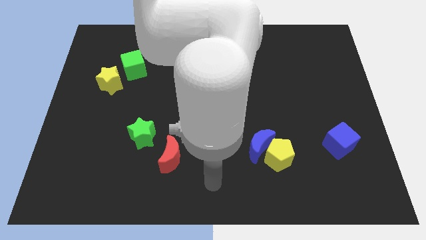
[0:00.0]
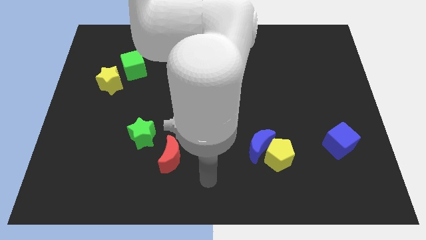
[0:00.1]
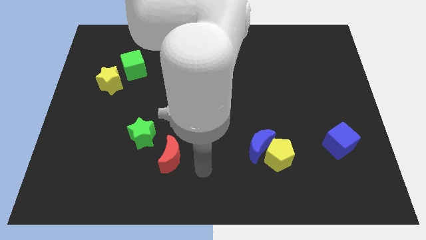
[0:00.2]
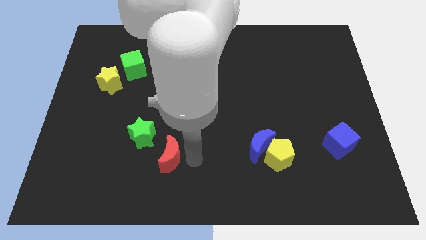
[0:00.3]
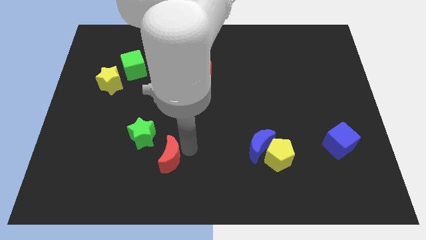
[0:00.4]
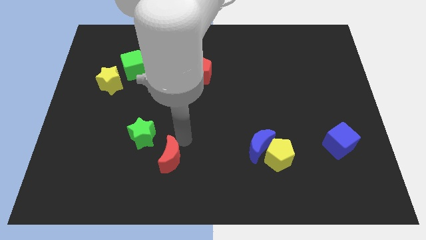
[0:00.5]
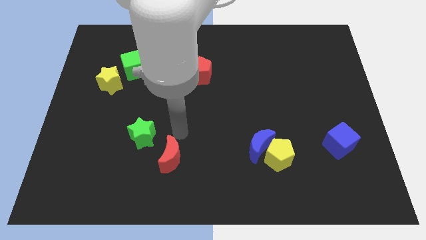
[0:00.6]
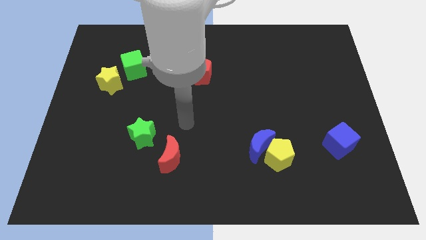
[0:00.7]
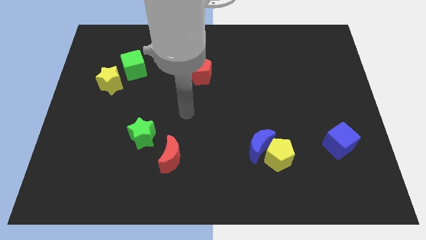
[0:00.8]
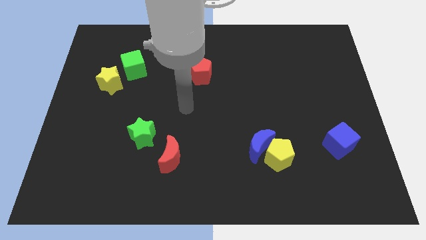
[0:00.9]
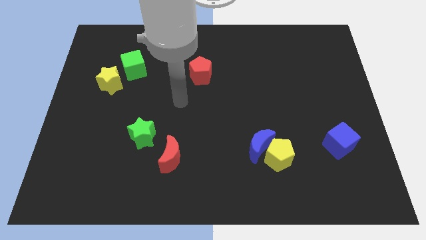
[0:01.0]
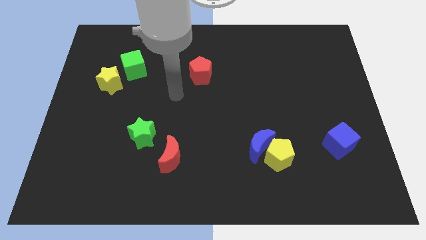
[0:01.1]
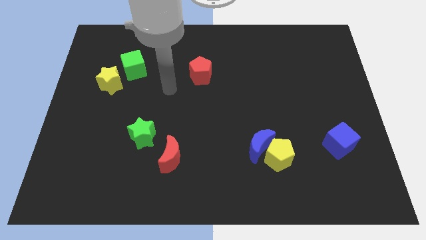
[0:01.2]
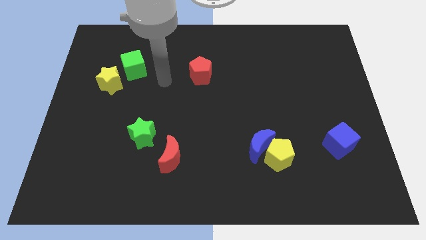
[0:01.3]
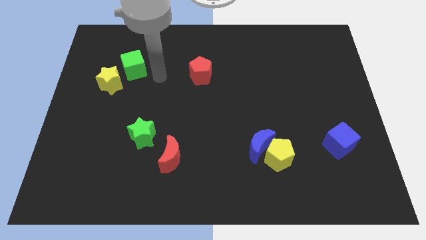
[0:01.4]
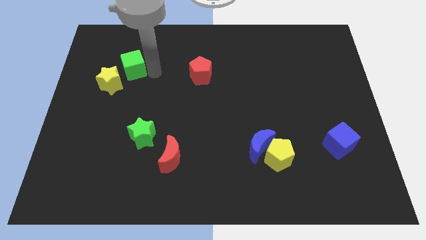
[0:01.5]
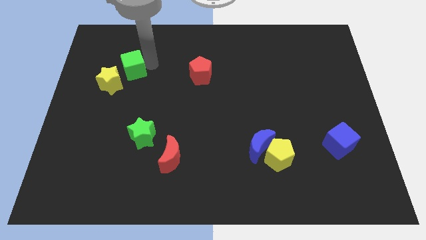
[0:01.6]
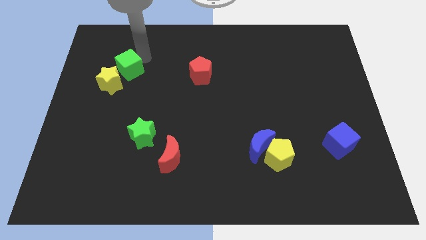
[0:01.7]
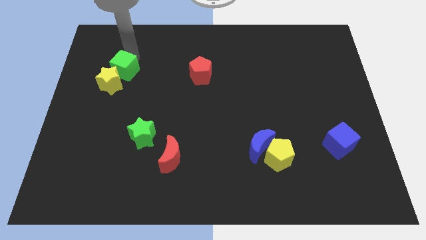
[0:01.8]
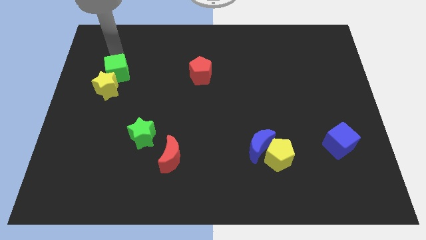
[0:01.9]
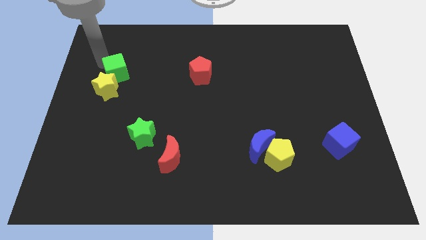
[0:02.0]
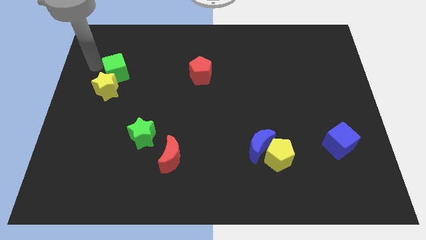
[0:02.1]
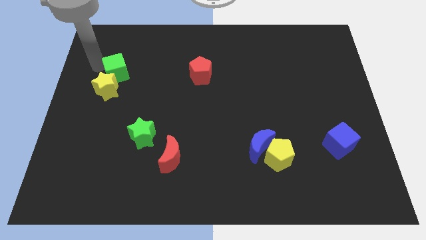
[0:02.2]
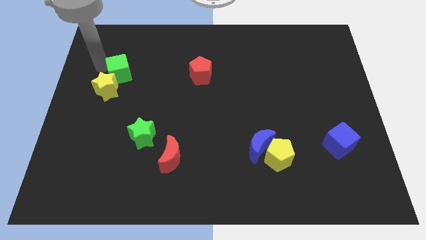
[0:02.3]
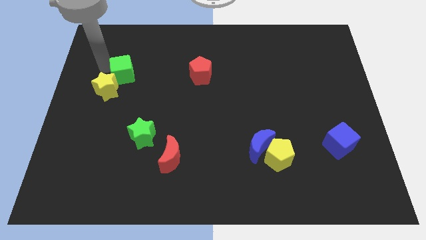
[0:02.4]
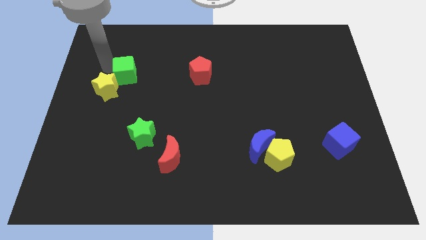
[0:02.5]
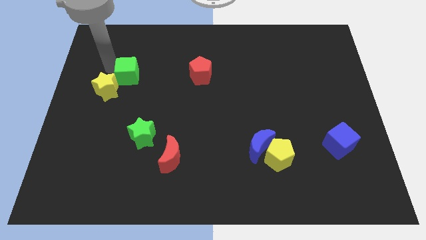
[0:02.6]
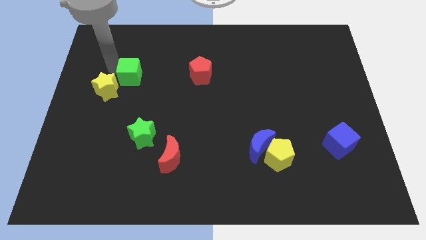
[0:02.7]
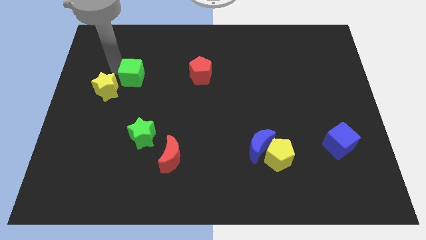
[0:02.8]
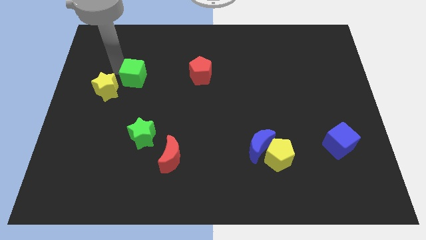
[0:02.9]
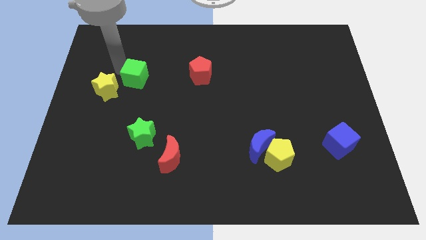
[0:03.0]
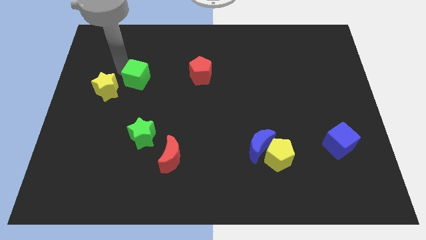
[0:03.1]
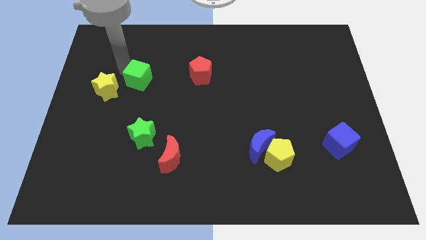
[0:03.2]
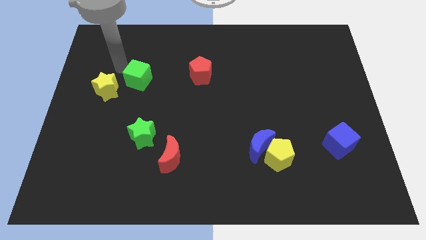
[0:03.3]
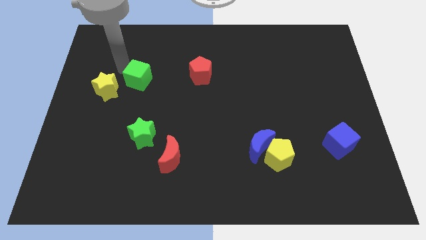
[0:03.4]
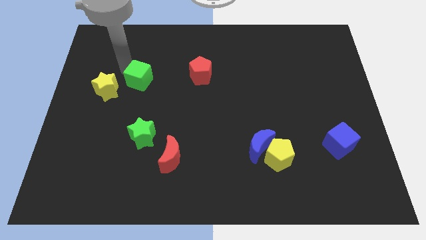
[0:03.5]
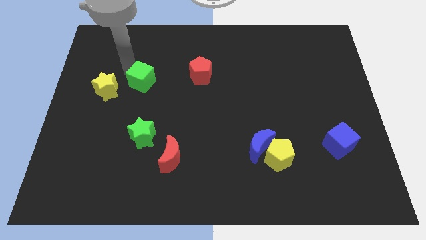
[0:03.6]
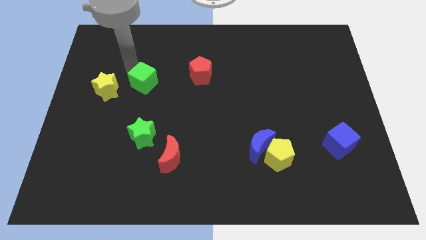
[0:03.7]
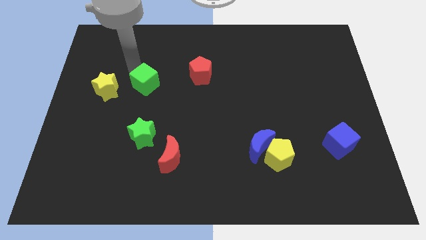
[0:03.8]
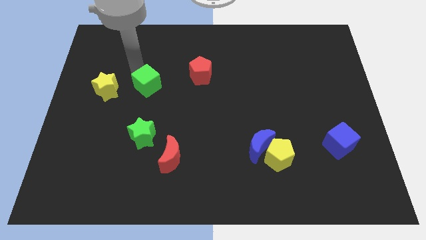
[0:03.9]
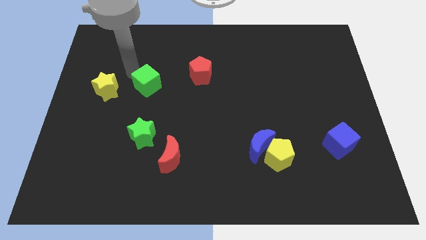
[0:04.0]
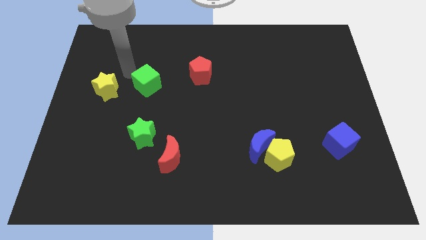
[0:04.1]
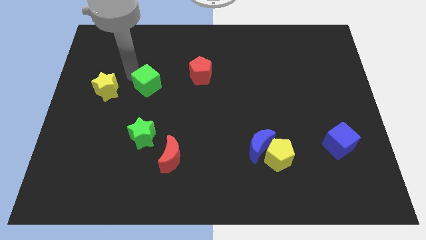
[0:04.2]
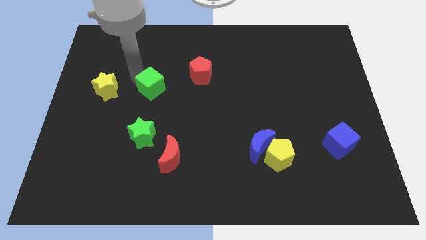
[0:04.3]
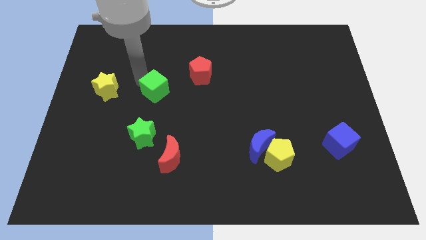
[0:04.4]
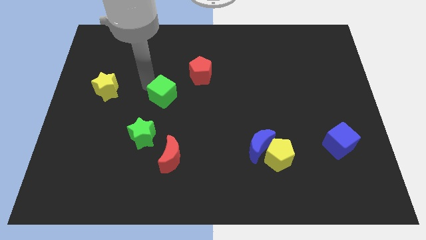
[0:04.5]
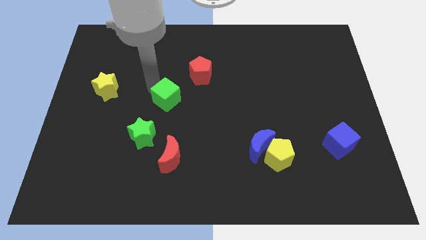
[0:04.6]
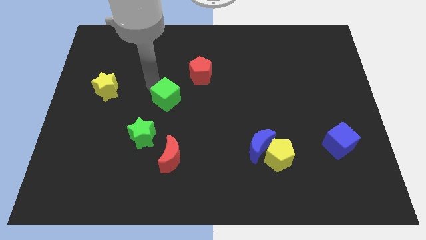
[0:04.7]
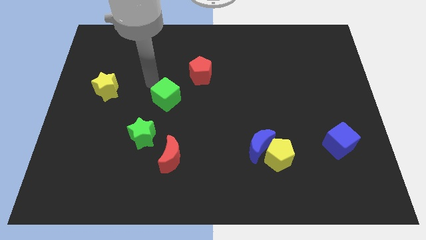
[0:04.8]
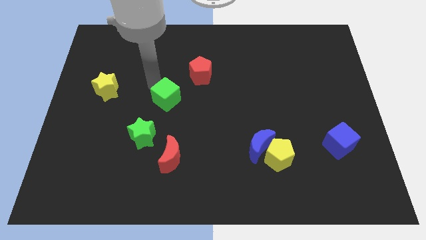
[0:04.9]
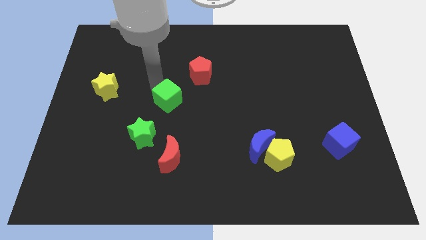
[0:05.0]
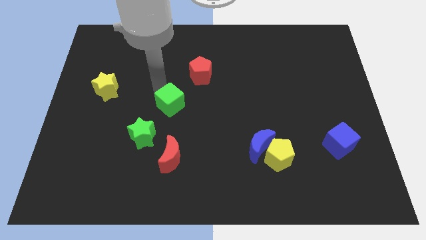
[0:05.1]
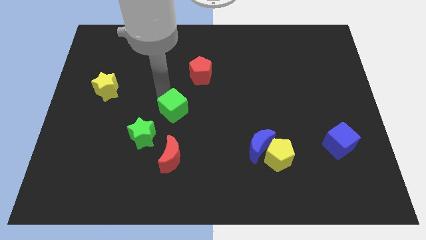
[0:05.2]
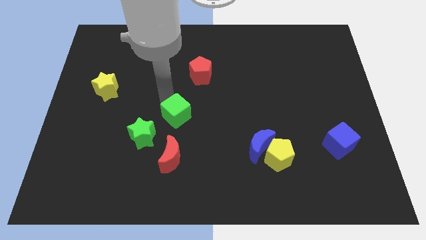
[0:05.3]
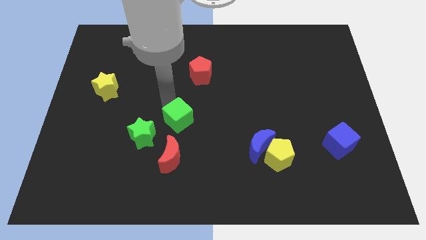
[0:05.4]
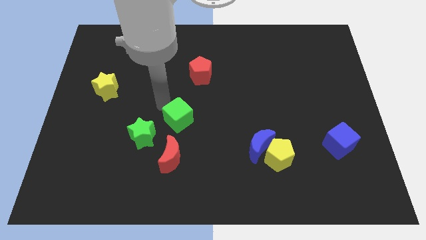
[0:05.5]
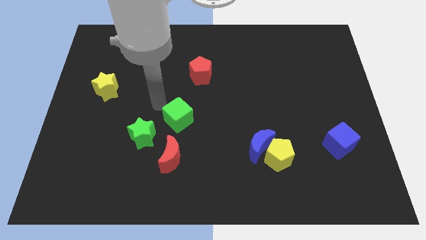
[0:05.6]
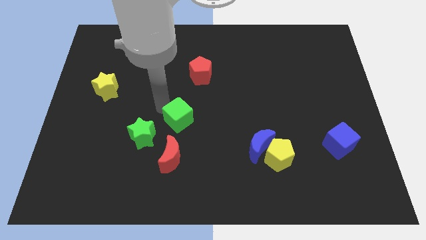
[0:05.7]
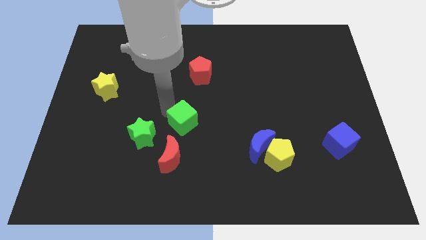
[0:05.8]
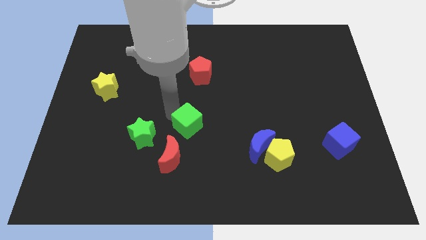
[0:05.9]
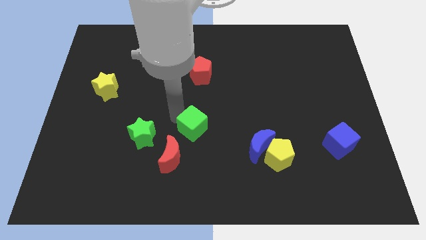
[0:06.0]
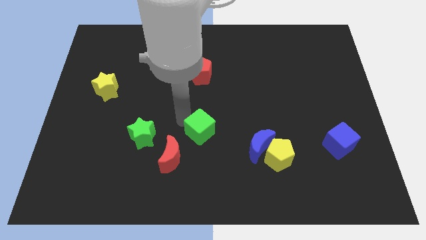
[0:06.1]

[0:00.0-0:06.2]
push the green cube left of the blue moon

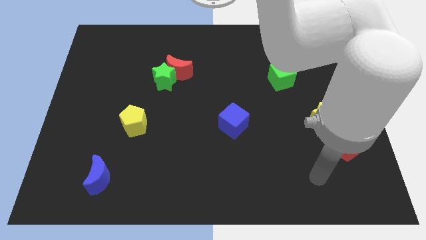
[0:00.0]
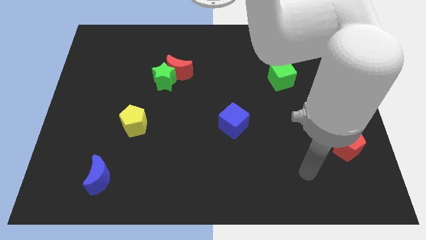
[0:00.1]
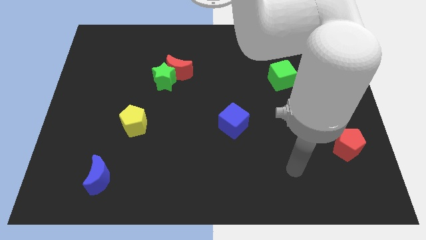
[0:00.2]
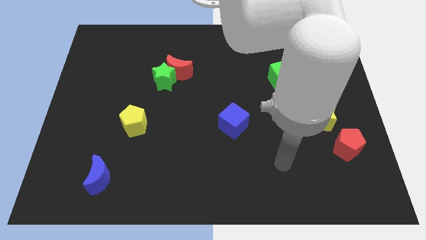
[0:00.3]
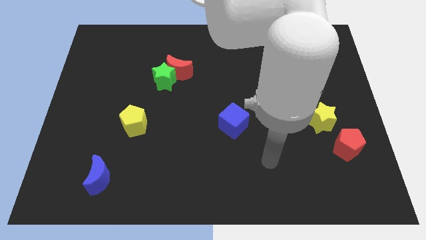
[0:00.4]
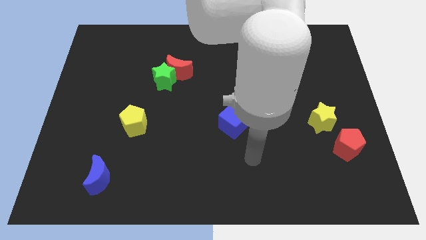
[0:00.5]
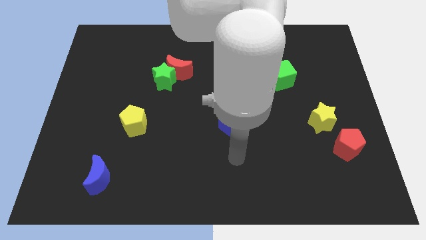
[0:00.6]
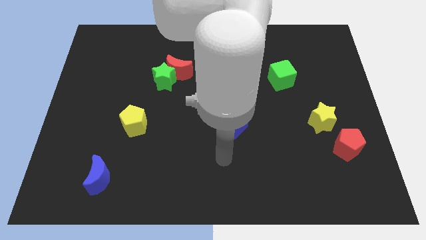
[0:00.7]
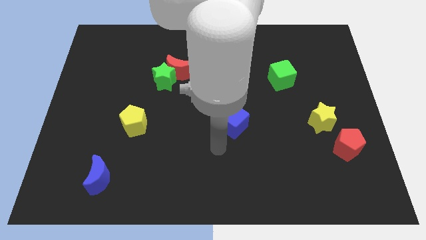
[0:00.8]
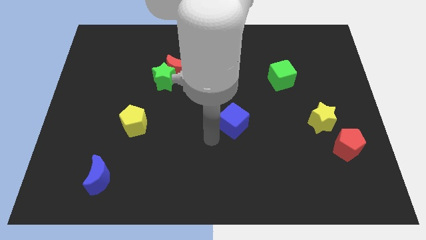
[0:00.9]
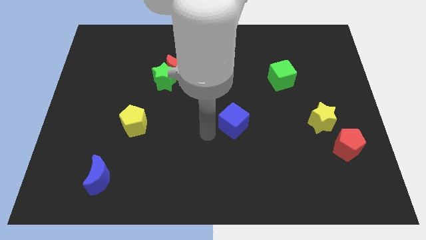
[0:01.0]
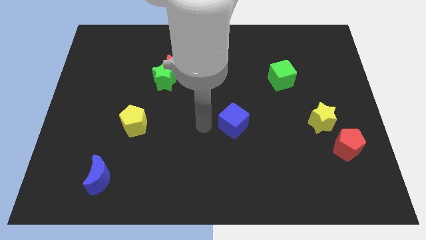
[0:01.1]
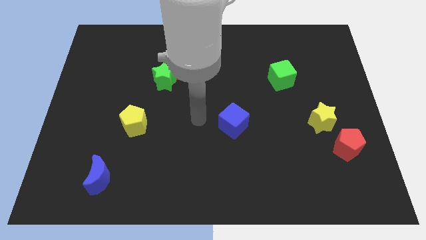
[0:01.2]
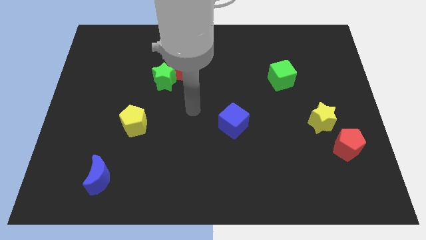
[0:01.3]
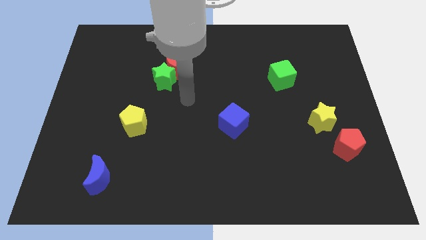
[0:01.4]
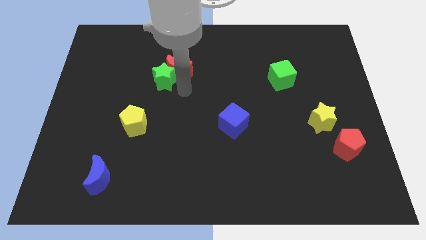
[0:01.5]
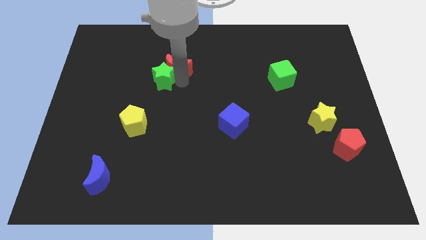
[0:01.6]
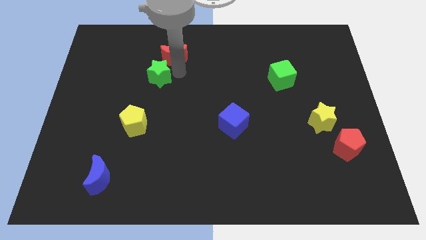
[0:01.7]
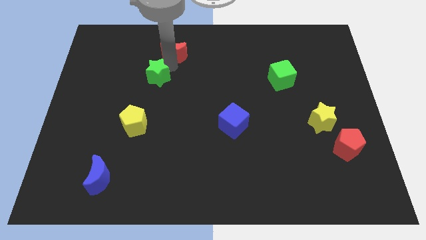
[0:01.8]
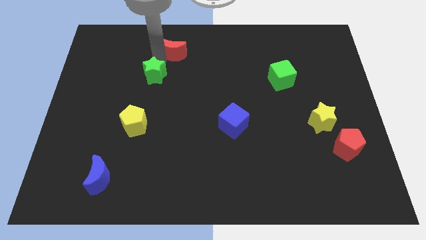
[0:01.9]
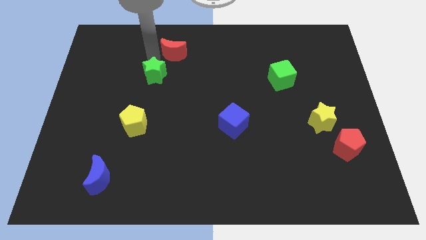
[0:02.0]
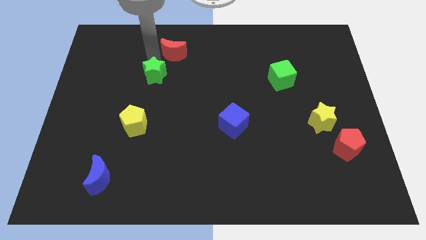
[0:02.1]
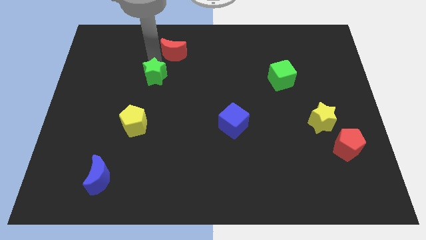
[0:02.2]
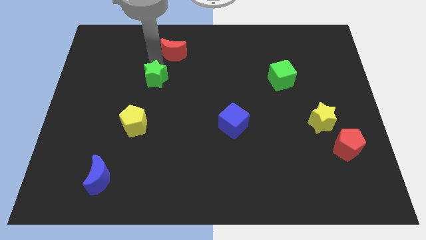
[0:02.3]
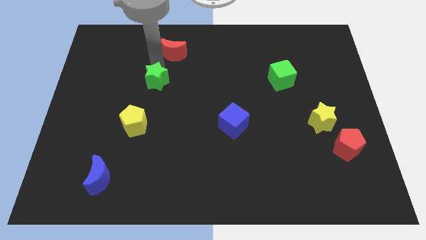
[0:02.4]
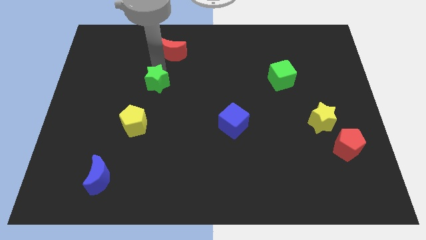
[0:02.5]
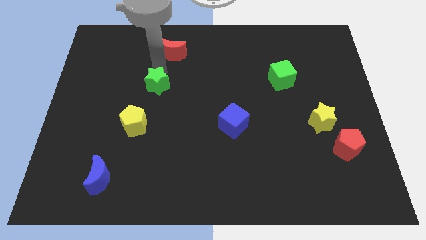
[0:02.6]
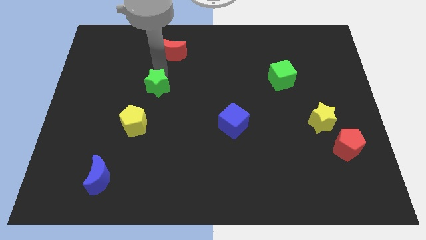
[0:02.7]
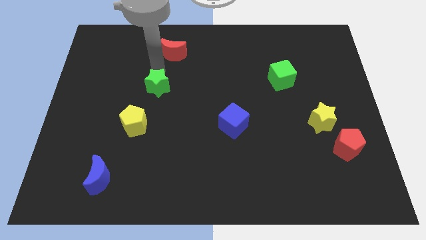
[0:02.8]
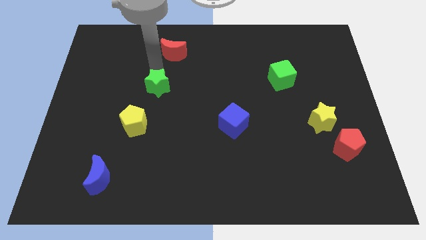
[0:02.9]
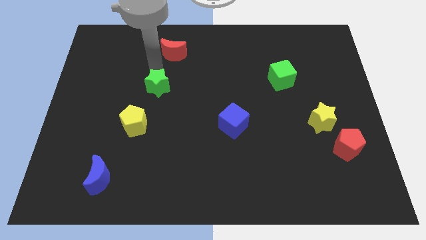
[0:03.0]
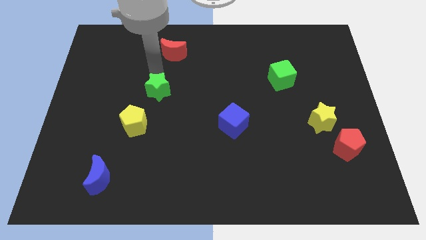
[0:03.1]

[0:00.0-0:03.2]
put the green star to the top right of the yellow pentagon
